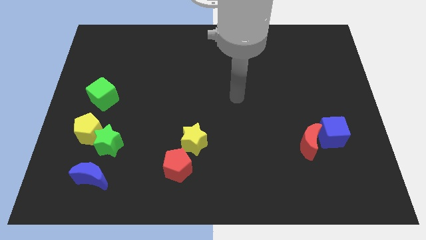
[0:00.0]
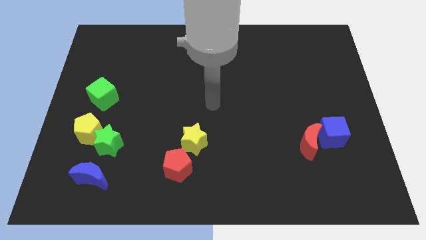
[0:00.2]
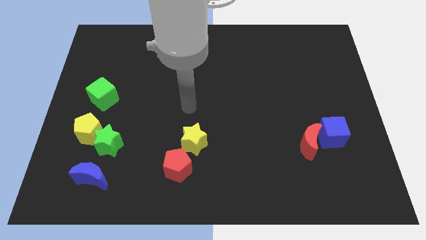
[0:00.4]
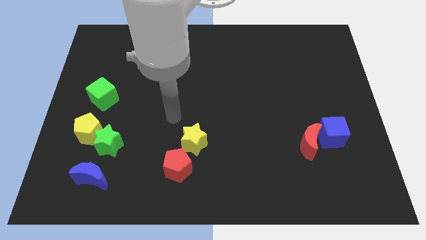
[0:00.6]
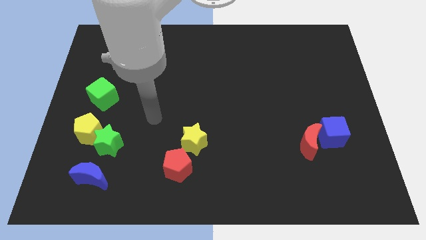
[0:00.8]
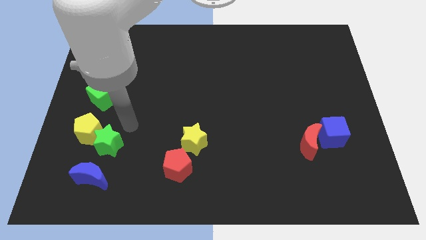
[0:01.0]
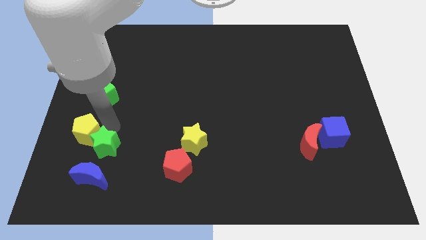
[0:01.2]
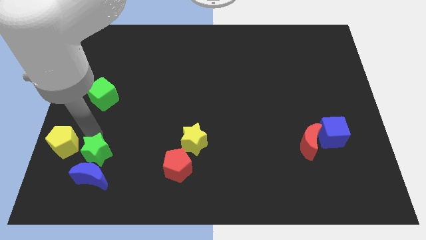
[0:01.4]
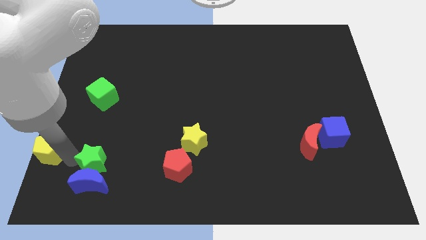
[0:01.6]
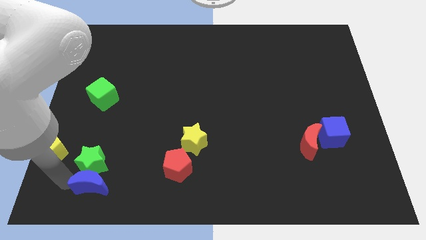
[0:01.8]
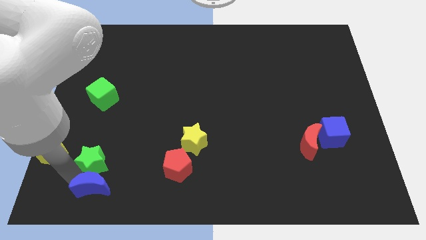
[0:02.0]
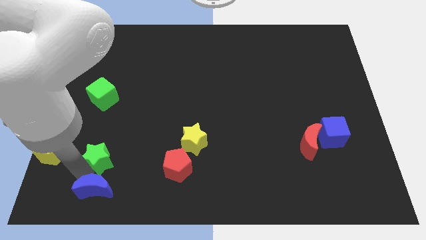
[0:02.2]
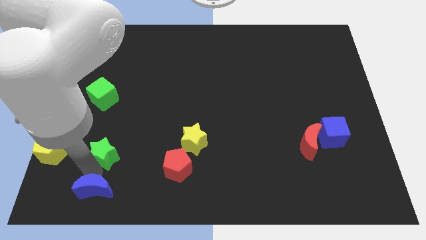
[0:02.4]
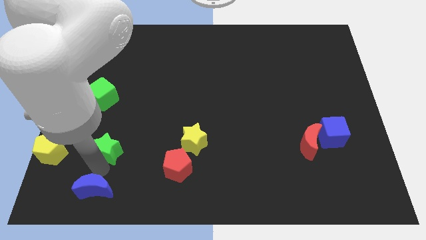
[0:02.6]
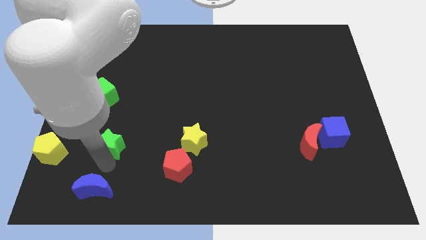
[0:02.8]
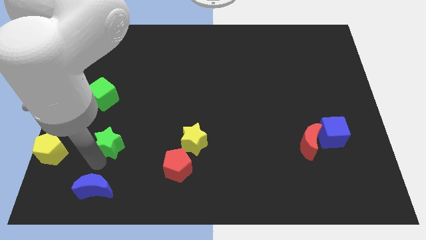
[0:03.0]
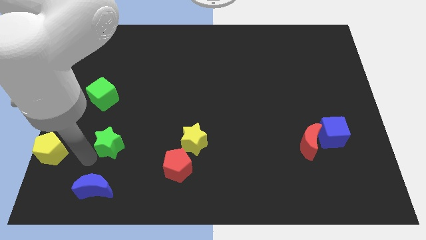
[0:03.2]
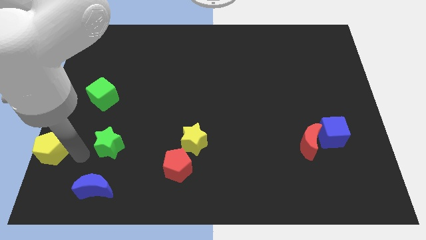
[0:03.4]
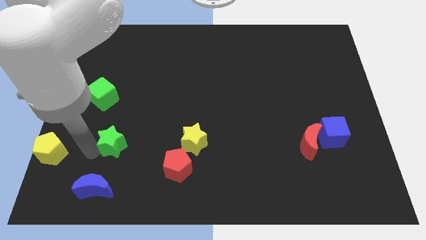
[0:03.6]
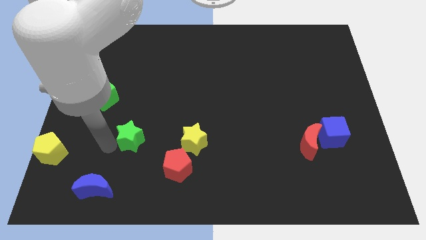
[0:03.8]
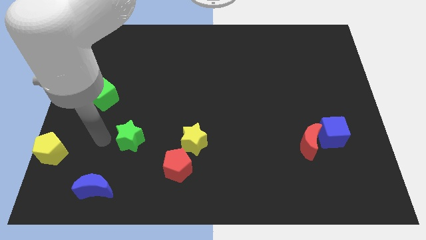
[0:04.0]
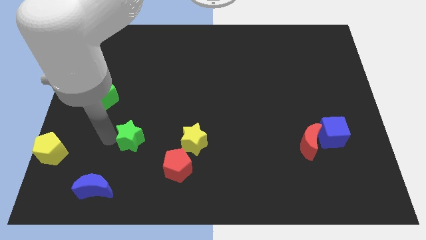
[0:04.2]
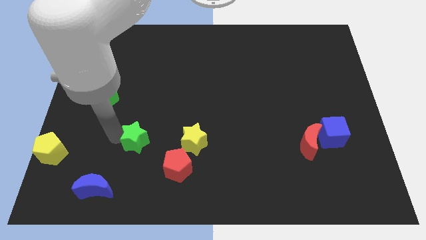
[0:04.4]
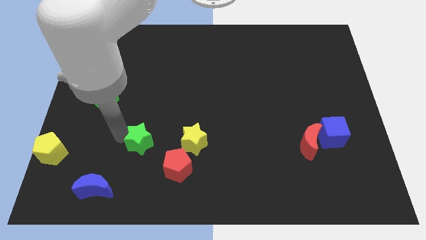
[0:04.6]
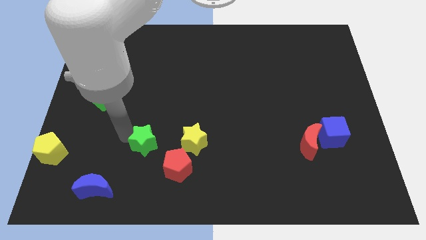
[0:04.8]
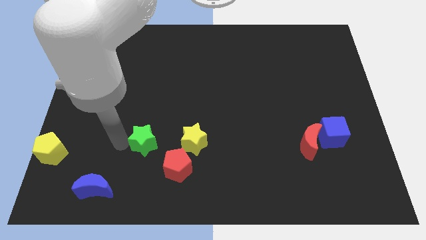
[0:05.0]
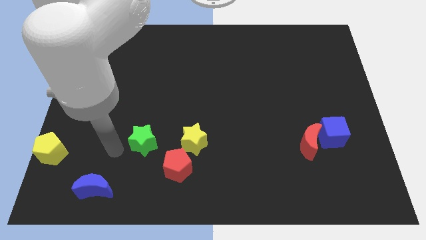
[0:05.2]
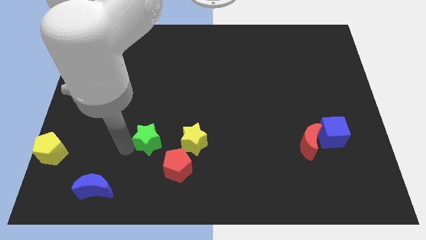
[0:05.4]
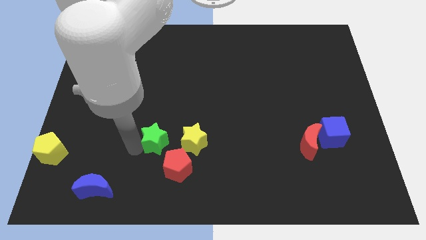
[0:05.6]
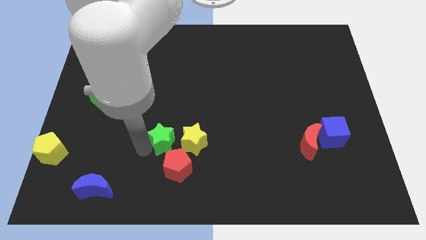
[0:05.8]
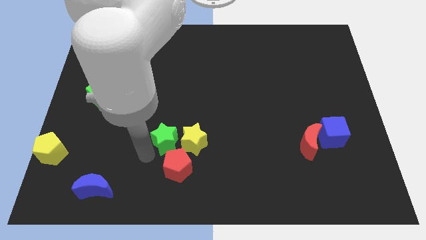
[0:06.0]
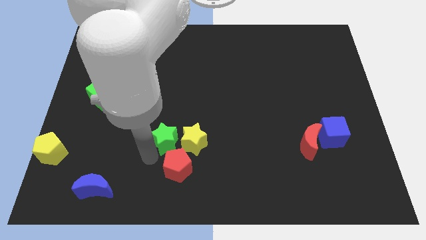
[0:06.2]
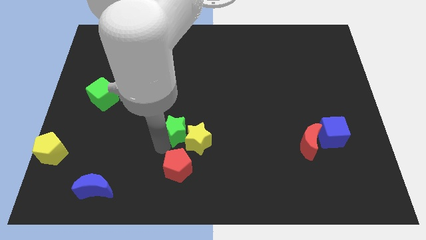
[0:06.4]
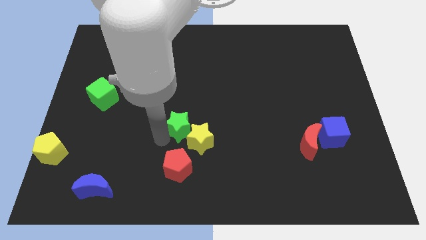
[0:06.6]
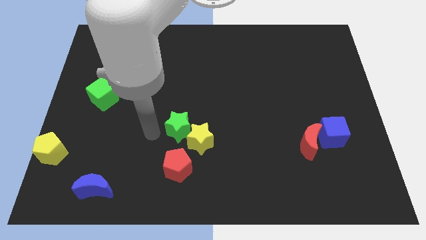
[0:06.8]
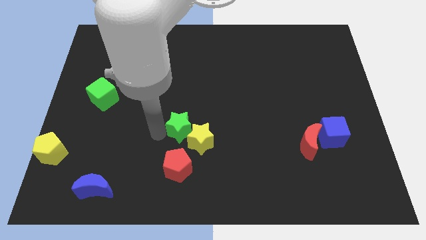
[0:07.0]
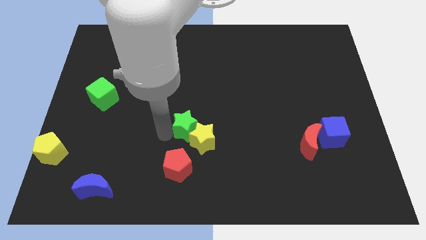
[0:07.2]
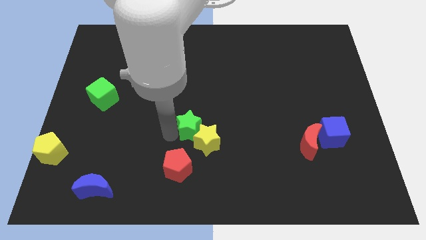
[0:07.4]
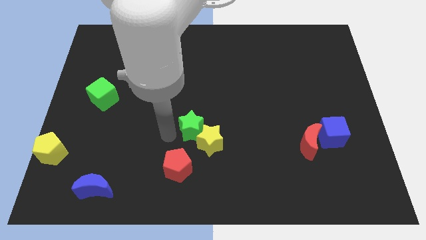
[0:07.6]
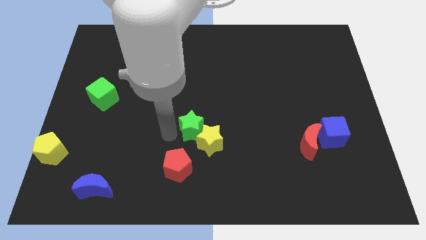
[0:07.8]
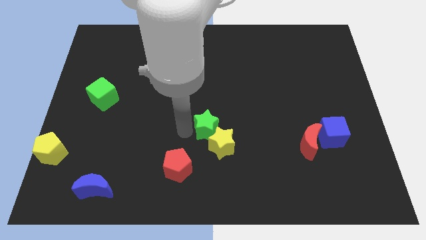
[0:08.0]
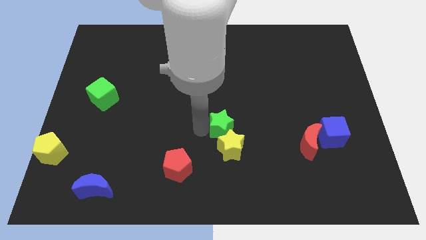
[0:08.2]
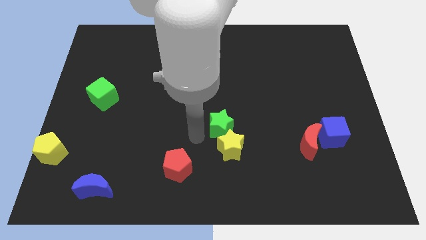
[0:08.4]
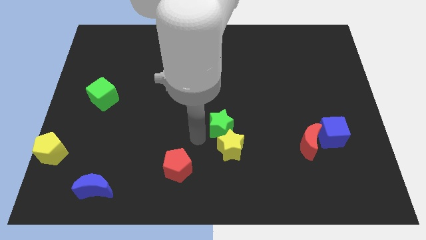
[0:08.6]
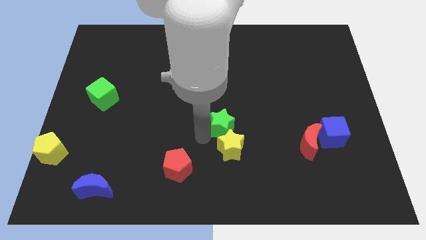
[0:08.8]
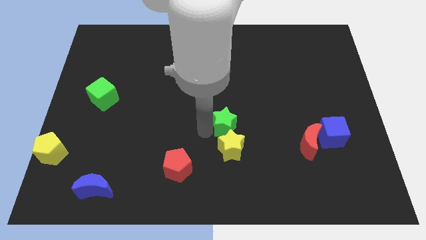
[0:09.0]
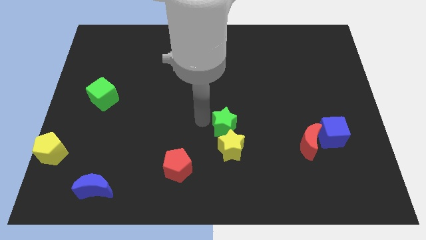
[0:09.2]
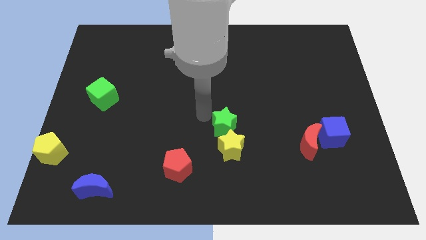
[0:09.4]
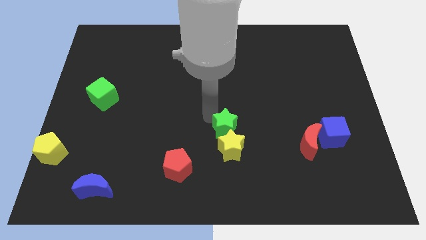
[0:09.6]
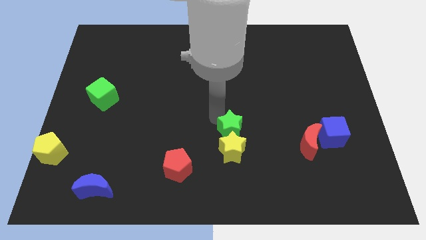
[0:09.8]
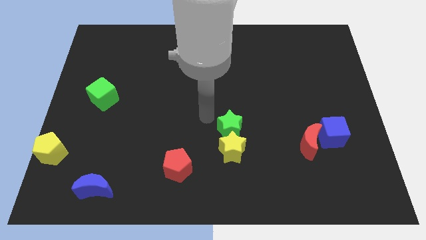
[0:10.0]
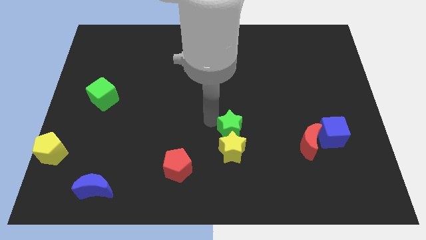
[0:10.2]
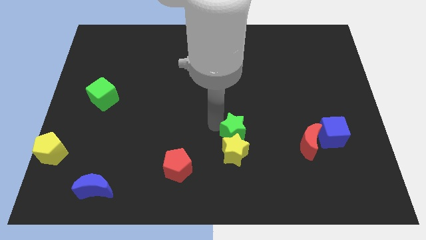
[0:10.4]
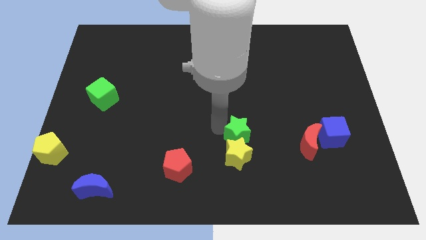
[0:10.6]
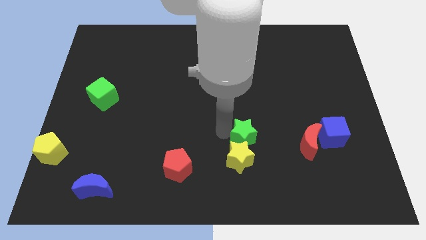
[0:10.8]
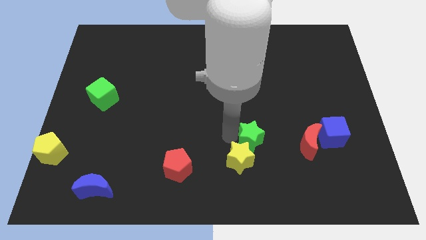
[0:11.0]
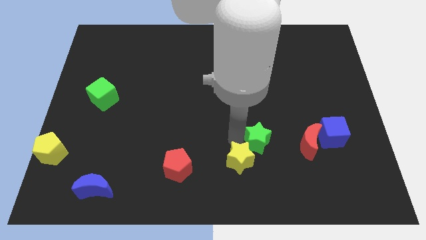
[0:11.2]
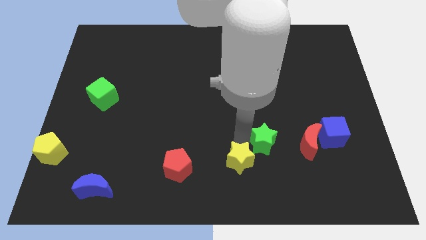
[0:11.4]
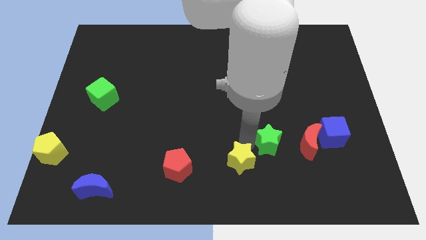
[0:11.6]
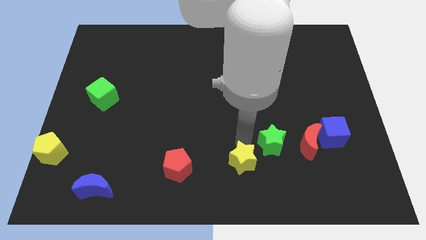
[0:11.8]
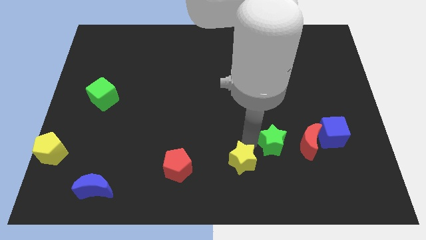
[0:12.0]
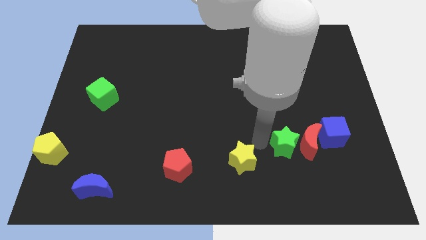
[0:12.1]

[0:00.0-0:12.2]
put the green star to the red moon

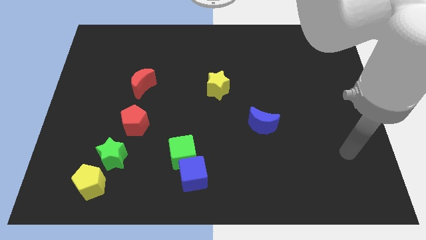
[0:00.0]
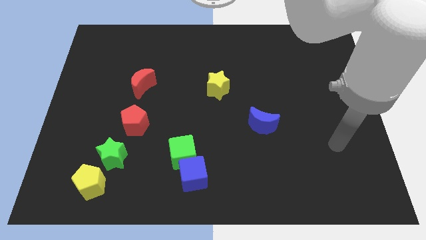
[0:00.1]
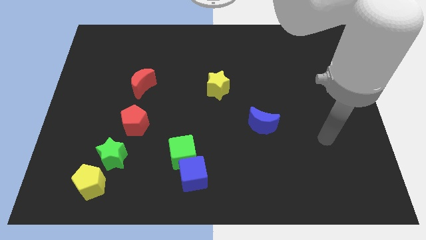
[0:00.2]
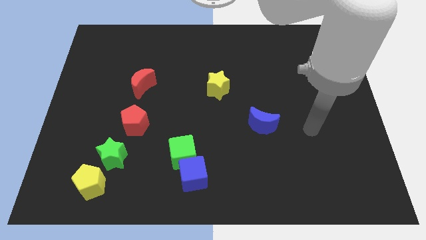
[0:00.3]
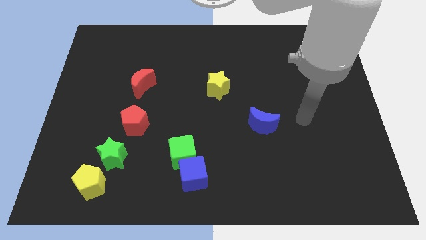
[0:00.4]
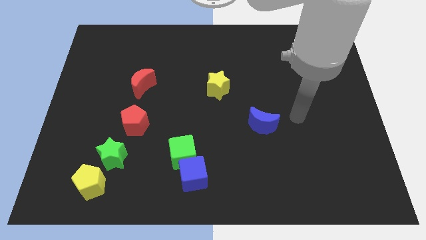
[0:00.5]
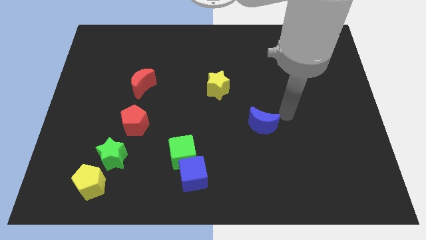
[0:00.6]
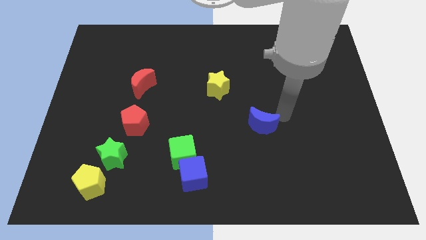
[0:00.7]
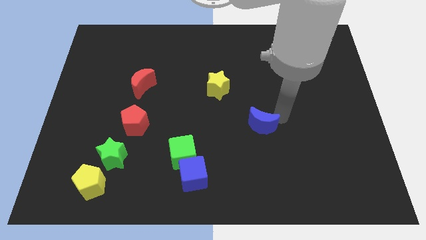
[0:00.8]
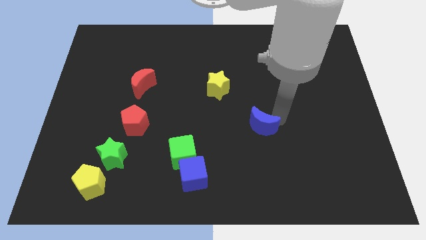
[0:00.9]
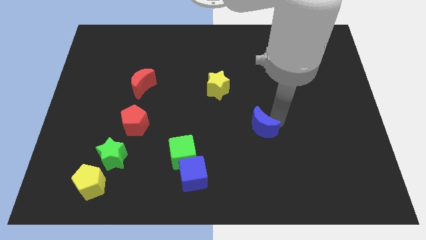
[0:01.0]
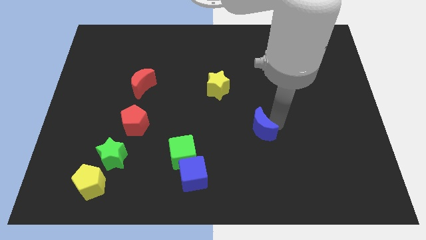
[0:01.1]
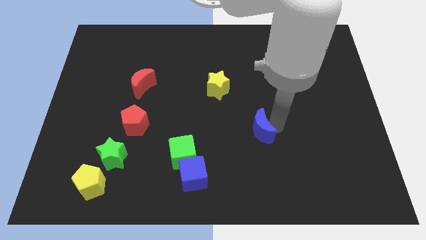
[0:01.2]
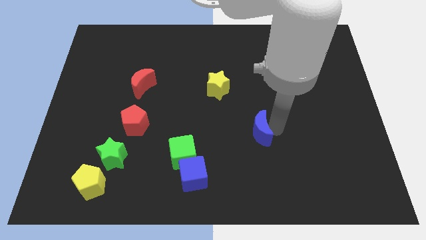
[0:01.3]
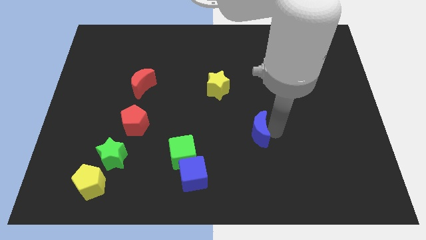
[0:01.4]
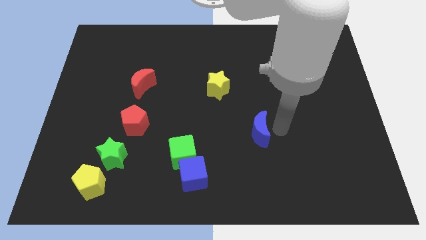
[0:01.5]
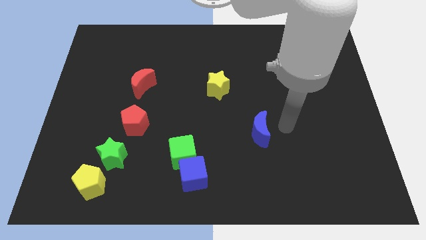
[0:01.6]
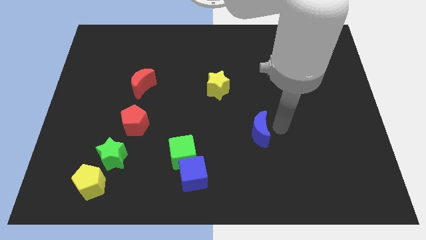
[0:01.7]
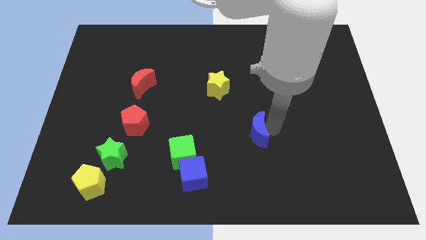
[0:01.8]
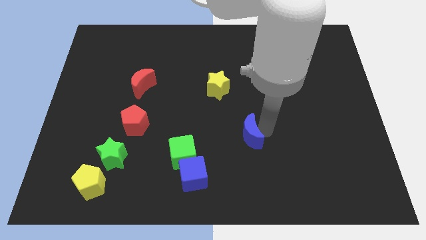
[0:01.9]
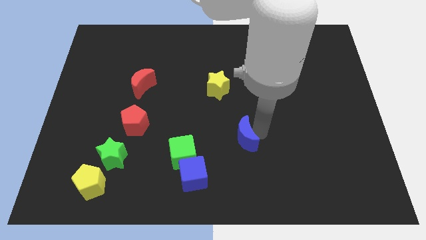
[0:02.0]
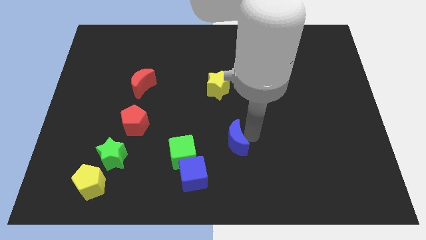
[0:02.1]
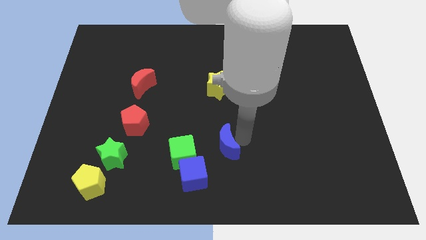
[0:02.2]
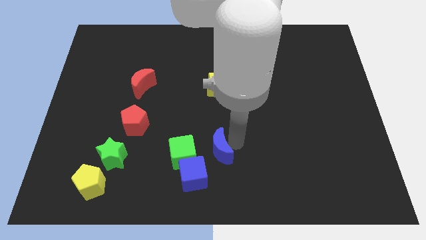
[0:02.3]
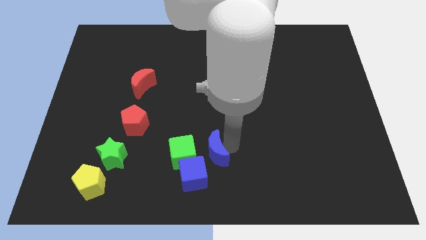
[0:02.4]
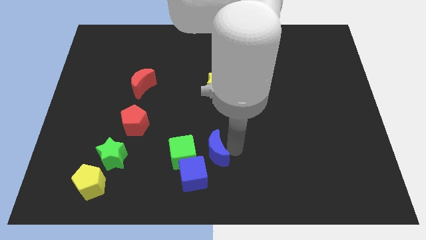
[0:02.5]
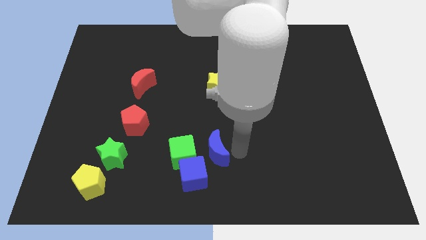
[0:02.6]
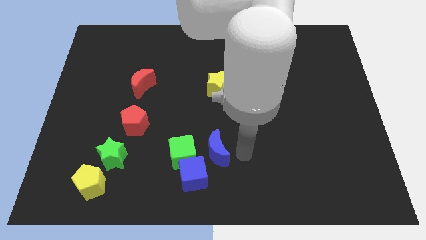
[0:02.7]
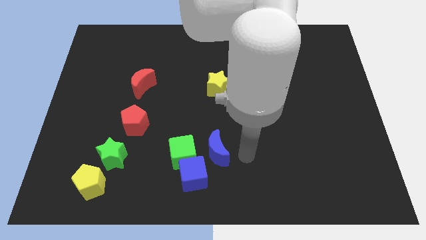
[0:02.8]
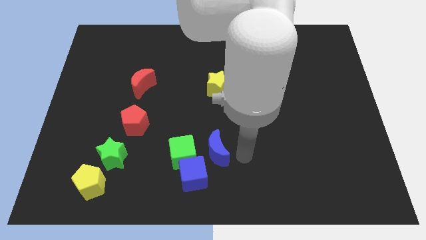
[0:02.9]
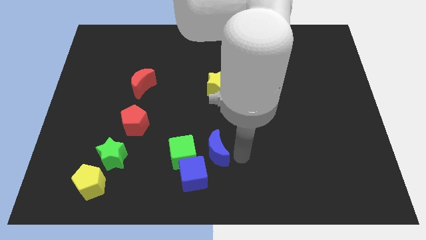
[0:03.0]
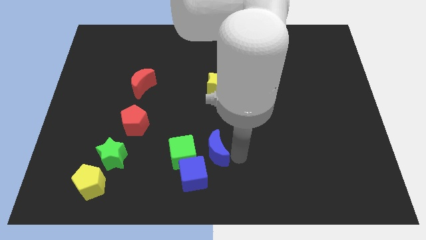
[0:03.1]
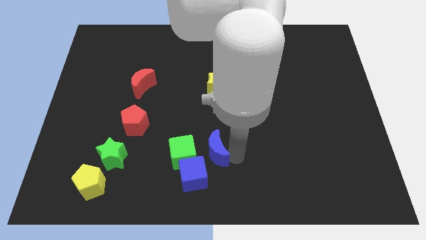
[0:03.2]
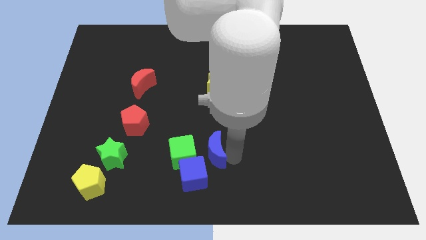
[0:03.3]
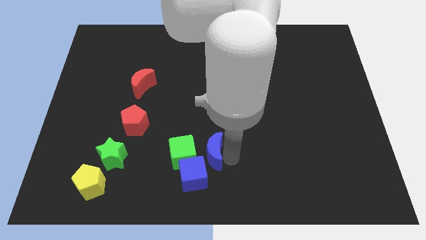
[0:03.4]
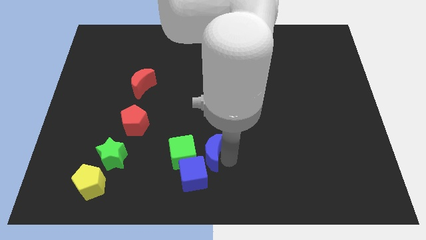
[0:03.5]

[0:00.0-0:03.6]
push the blue moon to the green cube
